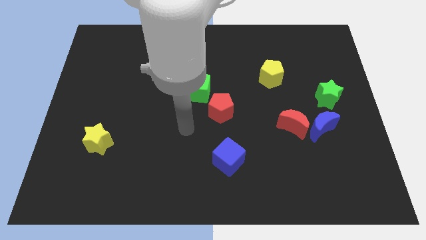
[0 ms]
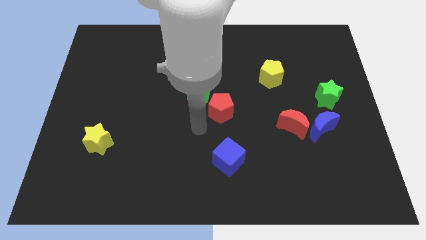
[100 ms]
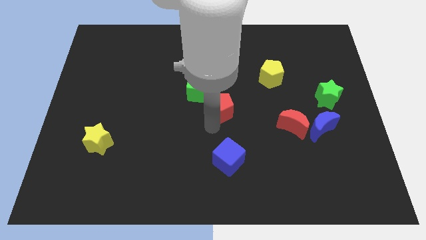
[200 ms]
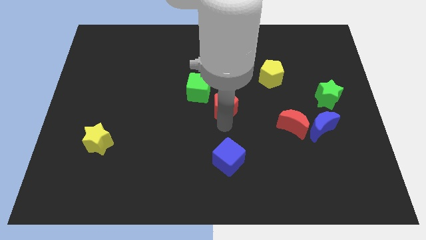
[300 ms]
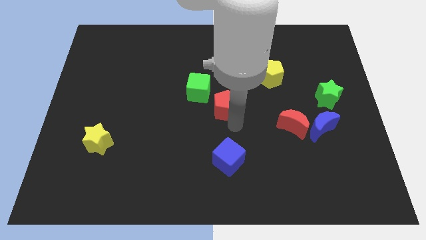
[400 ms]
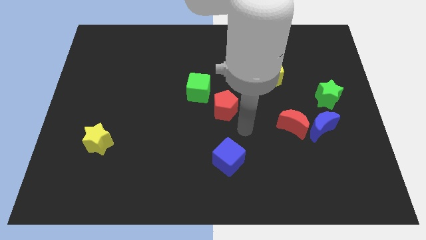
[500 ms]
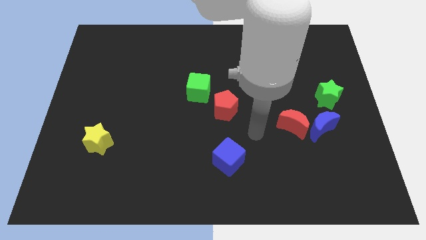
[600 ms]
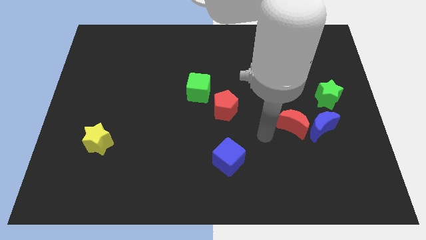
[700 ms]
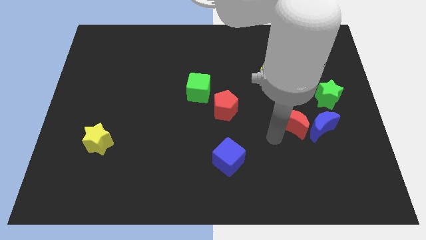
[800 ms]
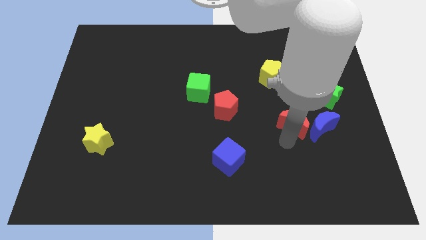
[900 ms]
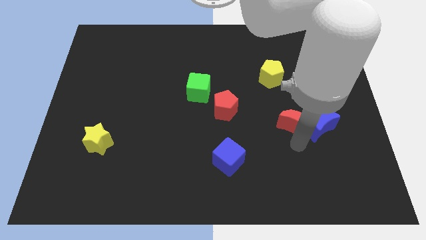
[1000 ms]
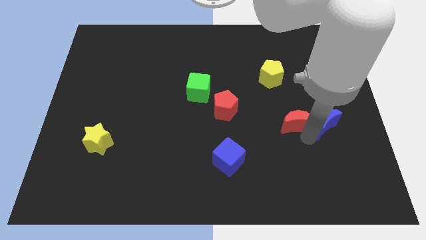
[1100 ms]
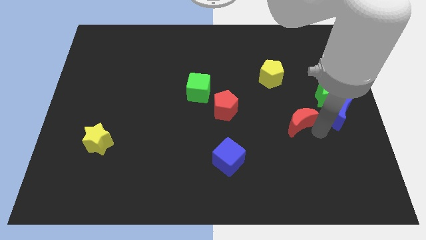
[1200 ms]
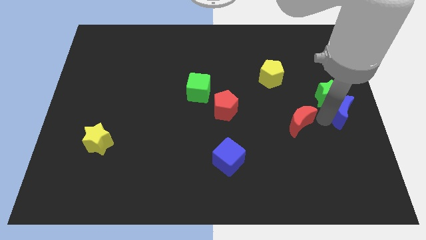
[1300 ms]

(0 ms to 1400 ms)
separate the red moon from the blue moon

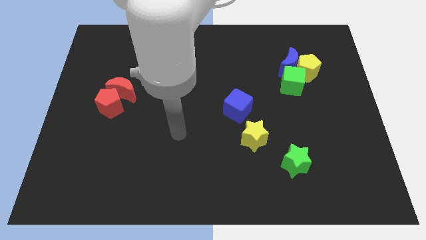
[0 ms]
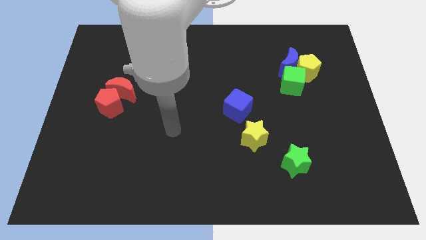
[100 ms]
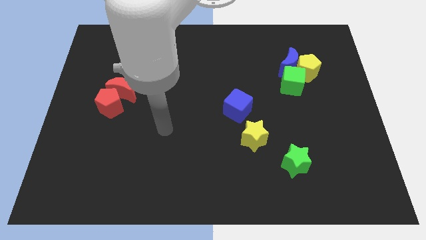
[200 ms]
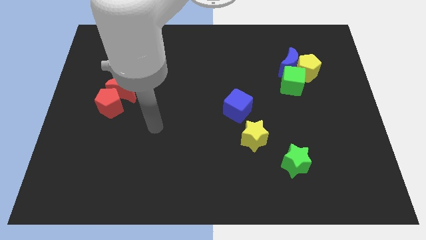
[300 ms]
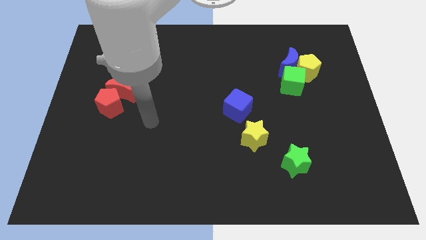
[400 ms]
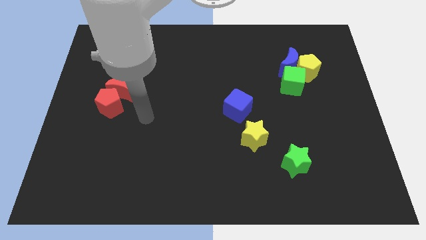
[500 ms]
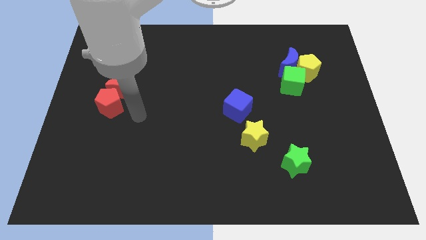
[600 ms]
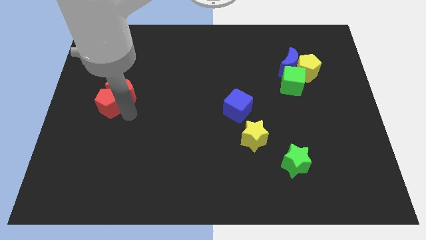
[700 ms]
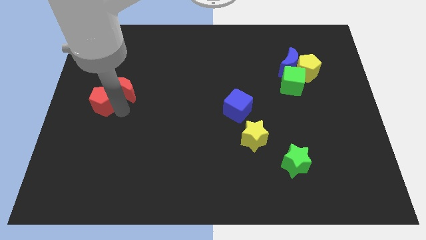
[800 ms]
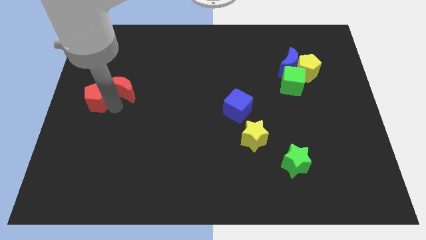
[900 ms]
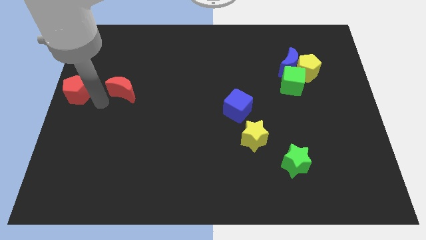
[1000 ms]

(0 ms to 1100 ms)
pull the red moon apart from the red pentagon

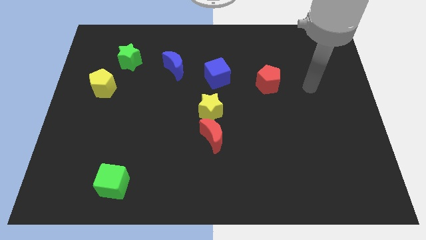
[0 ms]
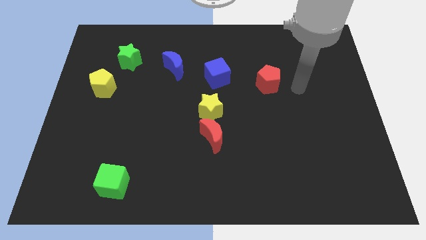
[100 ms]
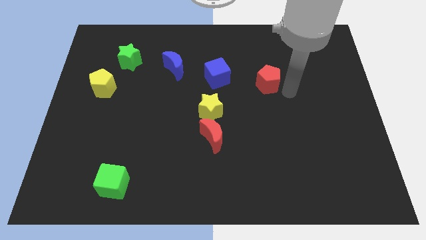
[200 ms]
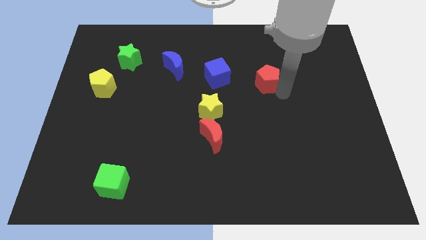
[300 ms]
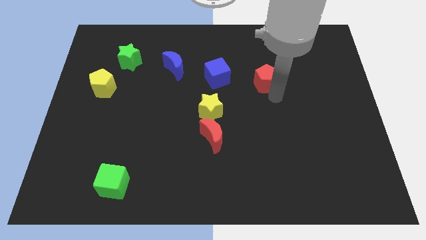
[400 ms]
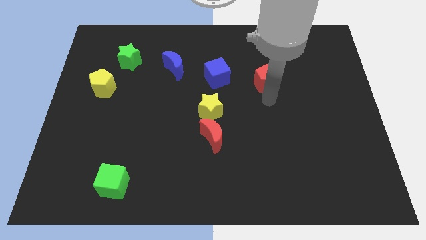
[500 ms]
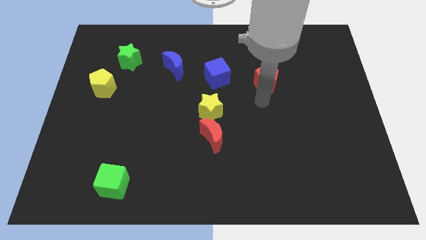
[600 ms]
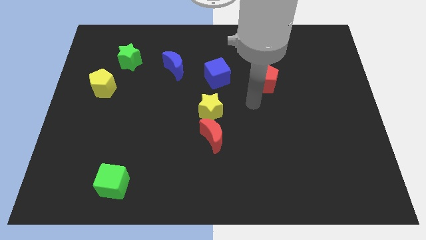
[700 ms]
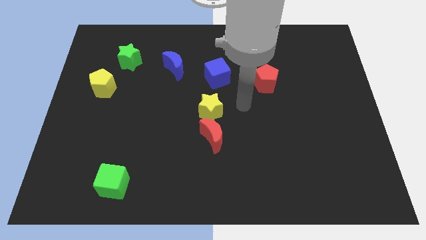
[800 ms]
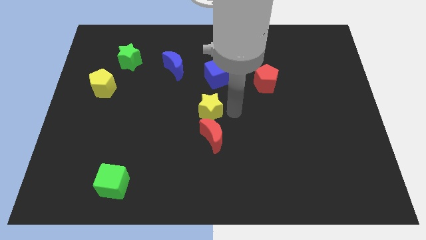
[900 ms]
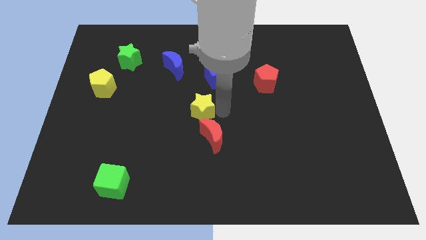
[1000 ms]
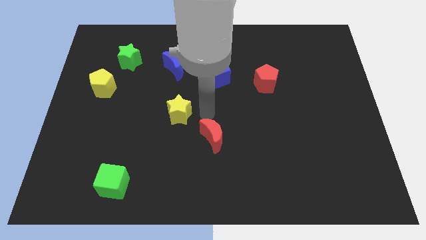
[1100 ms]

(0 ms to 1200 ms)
pull the red moon apart from the yellow star

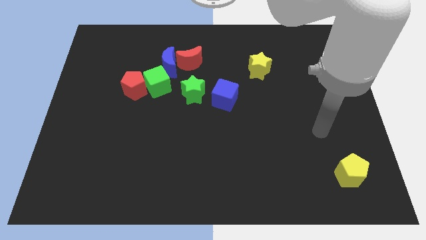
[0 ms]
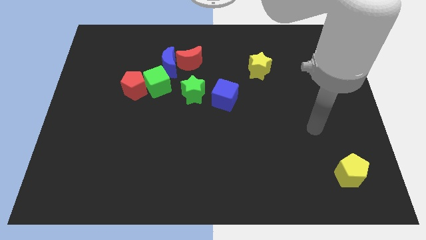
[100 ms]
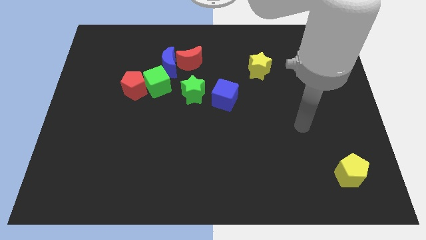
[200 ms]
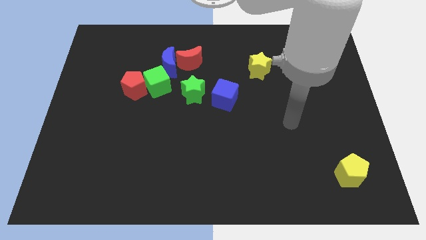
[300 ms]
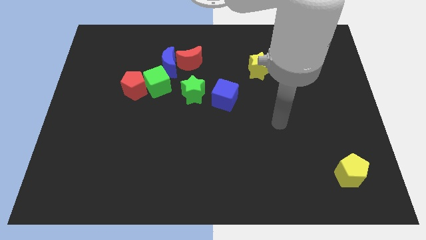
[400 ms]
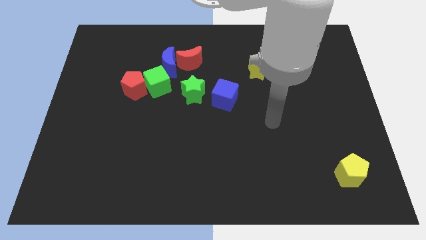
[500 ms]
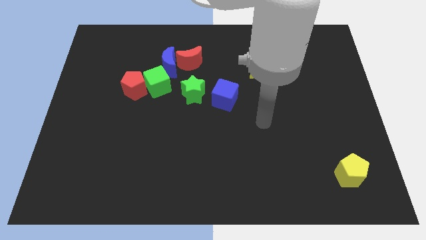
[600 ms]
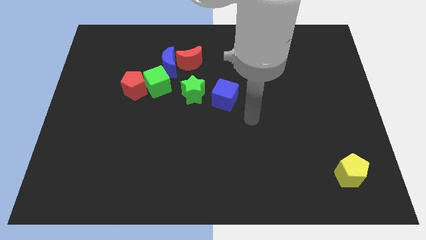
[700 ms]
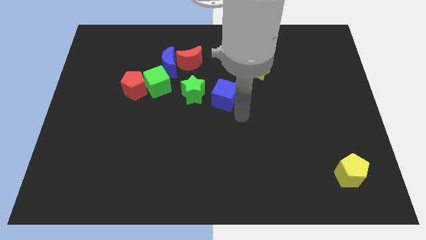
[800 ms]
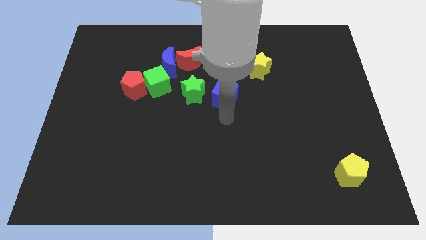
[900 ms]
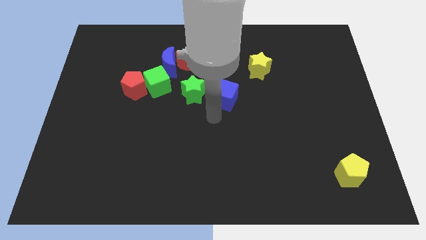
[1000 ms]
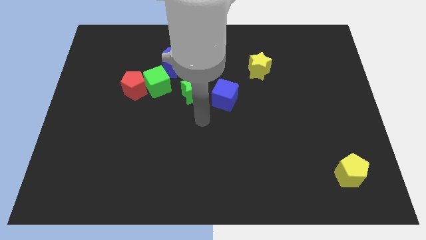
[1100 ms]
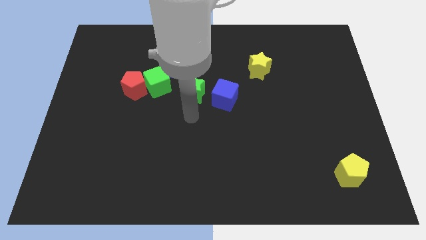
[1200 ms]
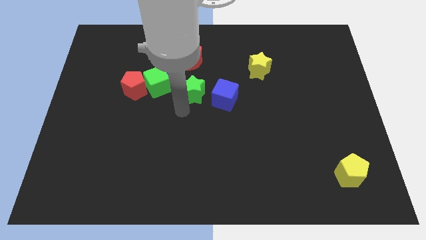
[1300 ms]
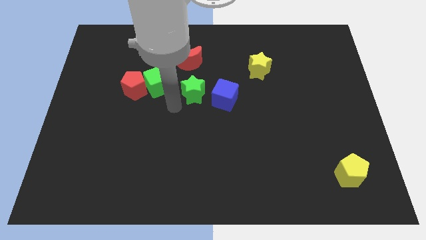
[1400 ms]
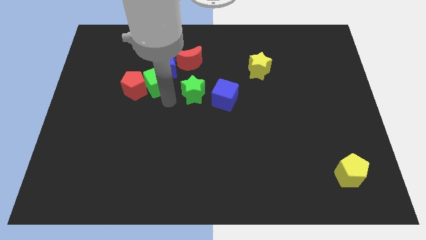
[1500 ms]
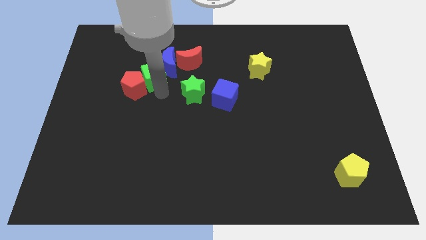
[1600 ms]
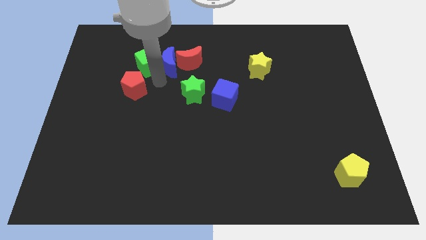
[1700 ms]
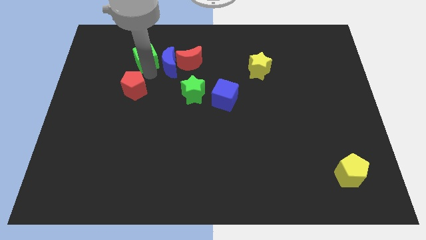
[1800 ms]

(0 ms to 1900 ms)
pull the red pentagon apart from the green cube

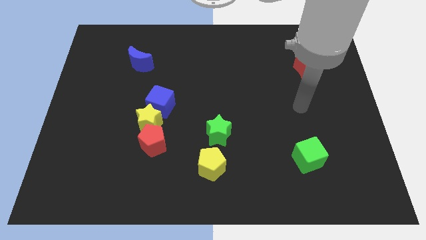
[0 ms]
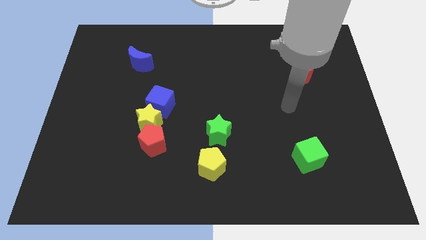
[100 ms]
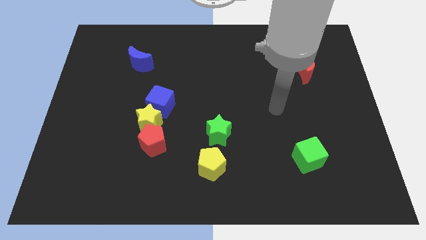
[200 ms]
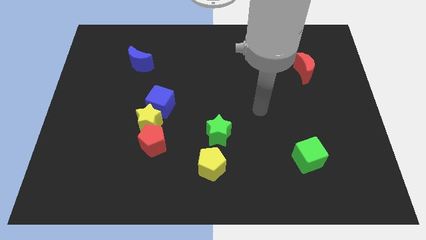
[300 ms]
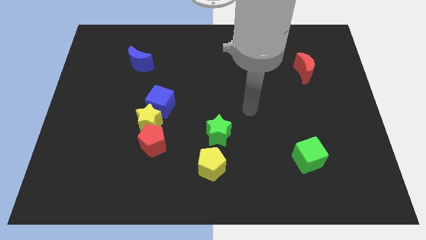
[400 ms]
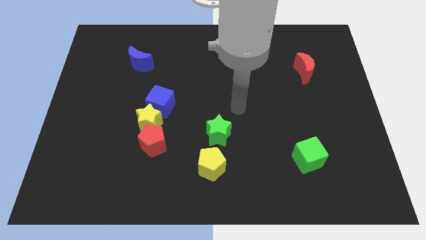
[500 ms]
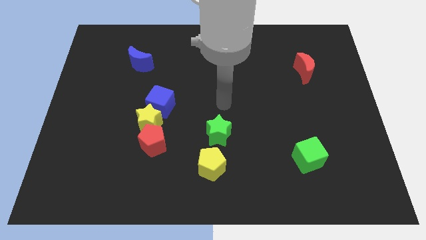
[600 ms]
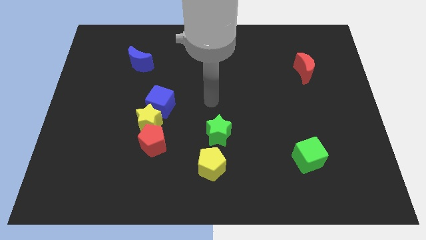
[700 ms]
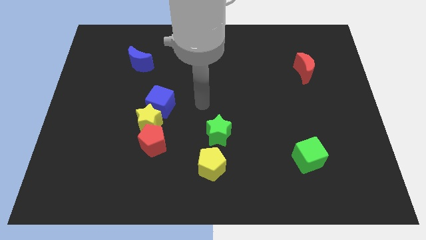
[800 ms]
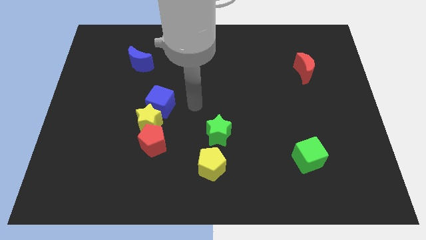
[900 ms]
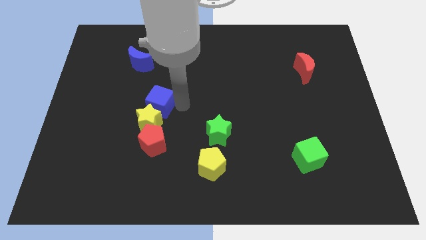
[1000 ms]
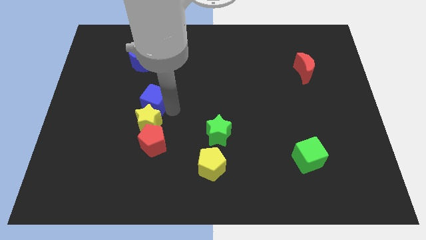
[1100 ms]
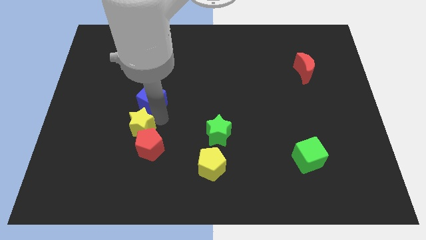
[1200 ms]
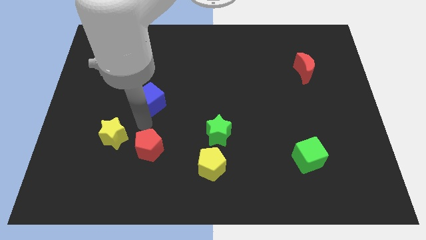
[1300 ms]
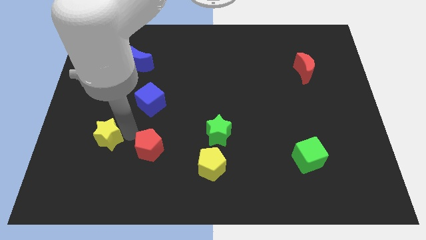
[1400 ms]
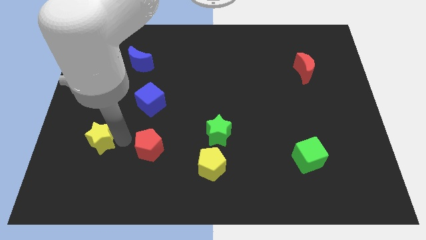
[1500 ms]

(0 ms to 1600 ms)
separate the red pentagon from the yellow star

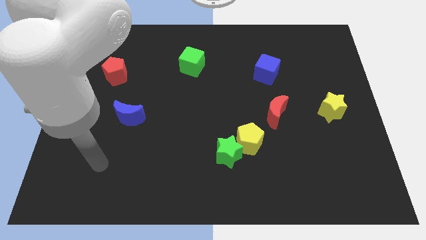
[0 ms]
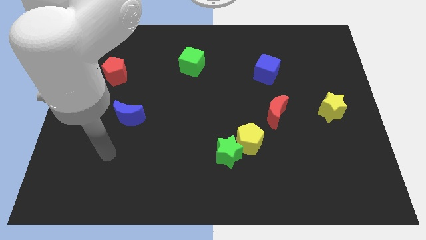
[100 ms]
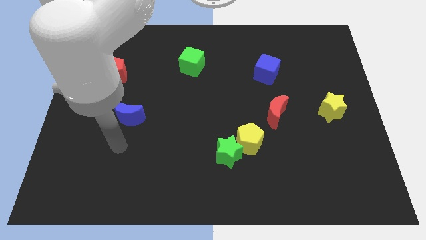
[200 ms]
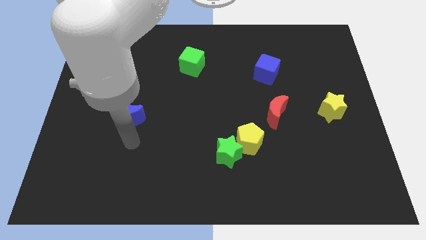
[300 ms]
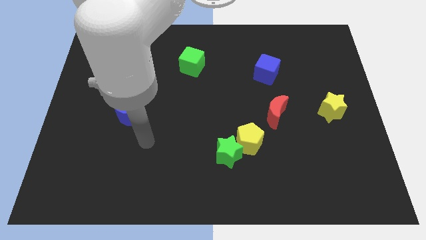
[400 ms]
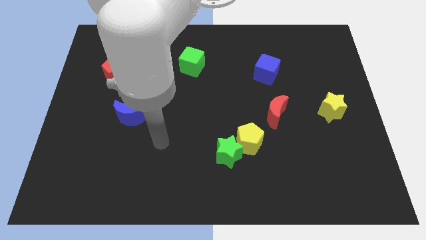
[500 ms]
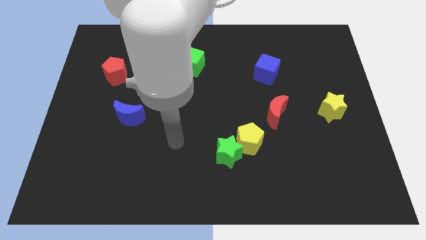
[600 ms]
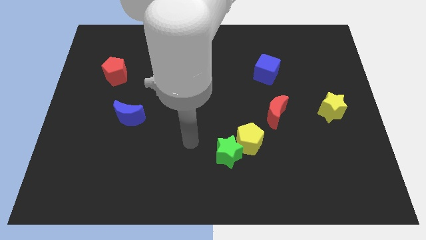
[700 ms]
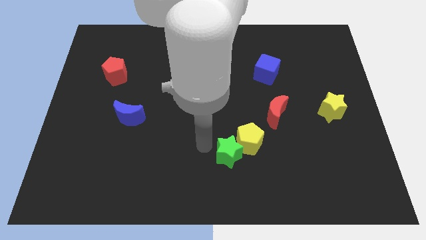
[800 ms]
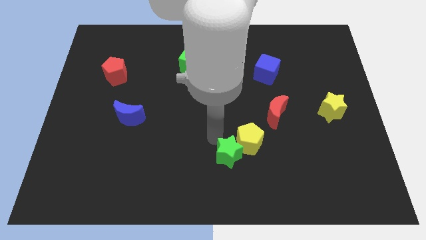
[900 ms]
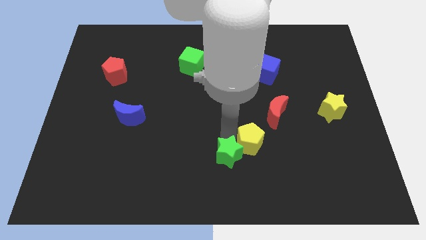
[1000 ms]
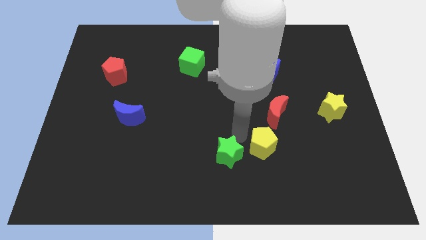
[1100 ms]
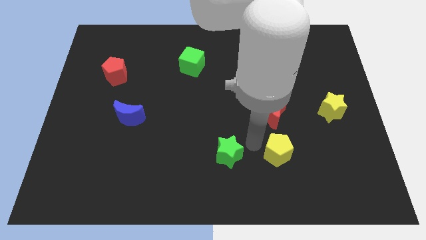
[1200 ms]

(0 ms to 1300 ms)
separate the green star from the yellow pentagon

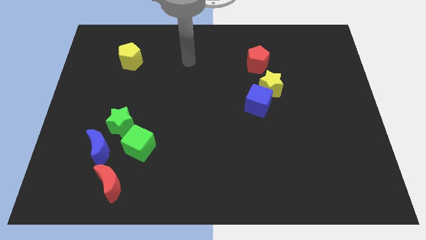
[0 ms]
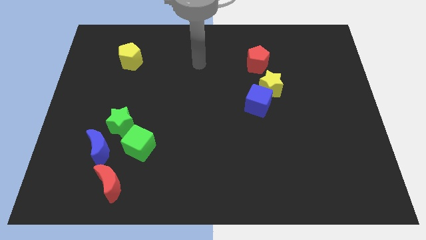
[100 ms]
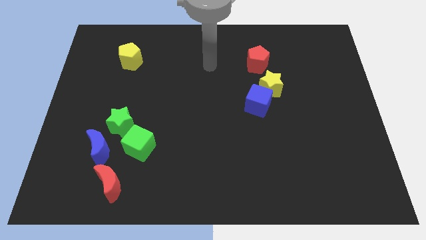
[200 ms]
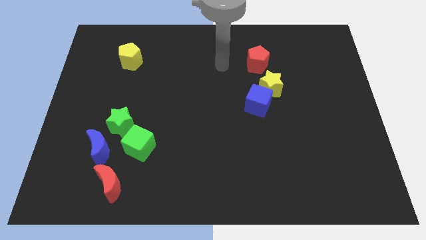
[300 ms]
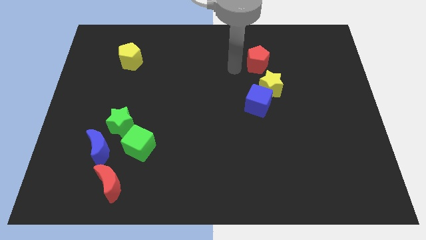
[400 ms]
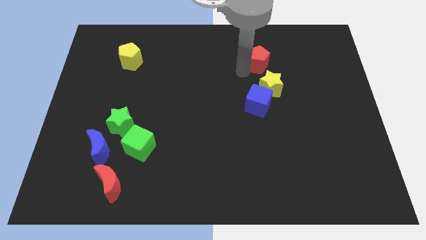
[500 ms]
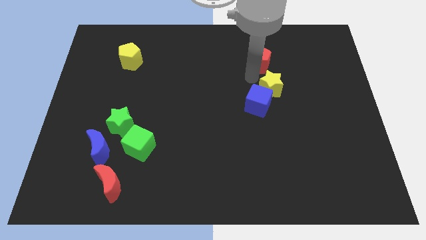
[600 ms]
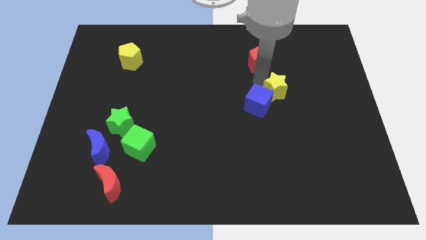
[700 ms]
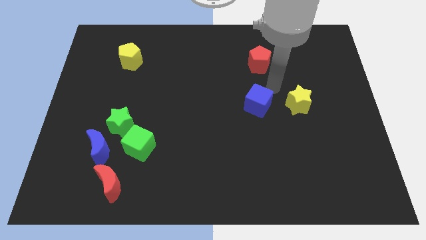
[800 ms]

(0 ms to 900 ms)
pull the blue cube apart from the yellow star
